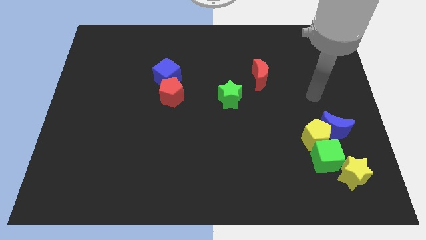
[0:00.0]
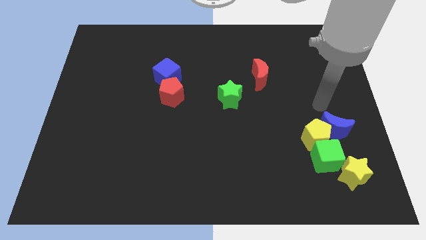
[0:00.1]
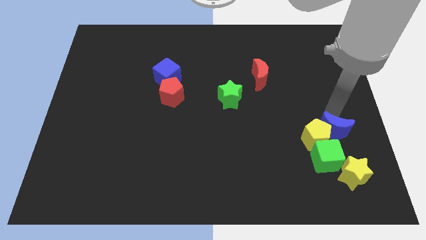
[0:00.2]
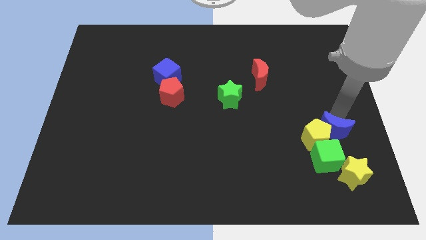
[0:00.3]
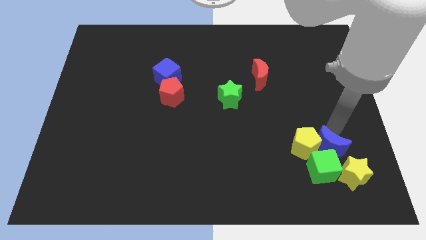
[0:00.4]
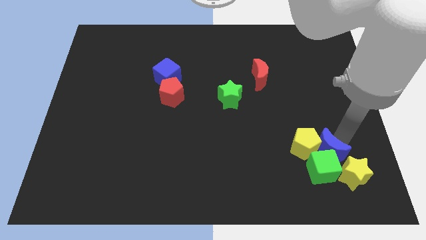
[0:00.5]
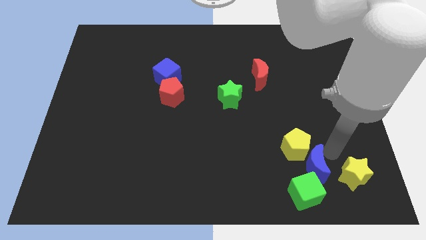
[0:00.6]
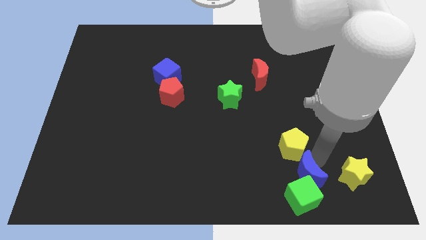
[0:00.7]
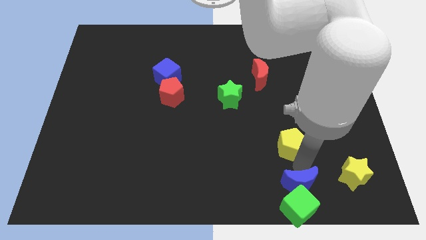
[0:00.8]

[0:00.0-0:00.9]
move the yellow pentagon away from the blue moon and green cube

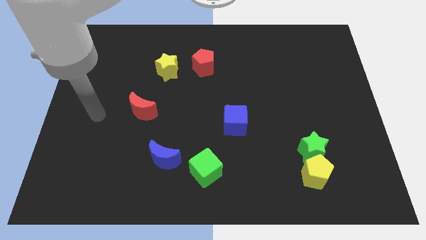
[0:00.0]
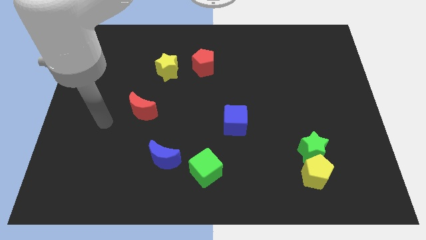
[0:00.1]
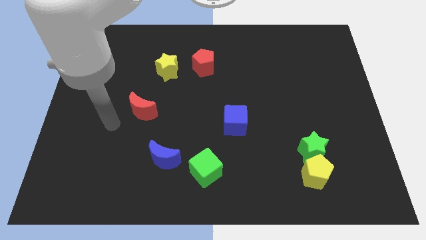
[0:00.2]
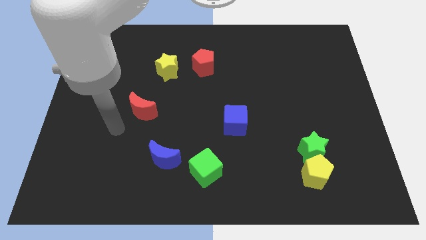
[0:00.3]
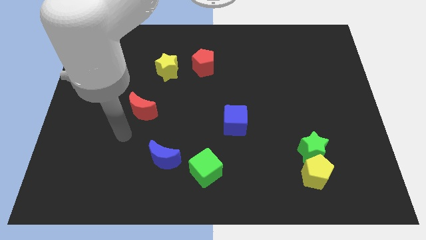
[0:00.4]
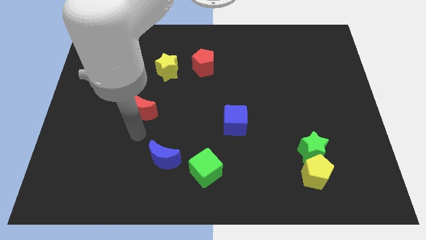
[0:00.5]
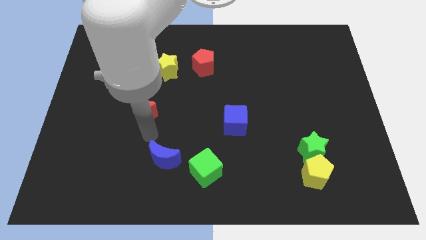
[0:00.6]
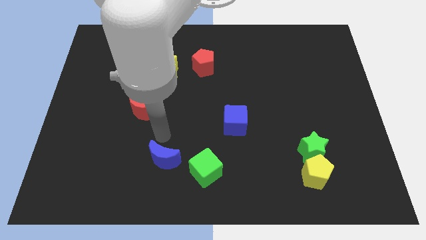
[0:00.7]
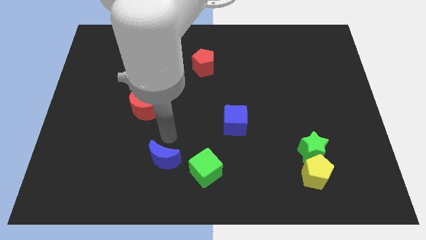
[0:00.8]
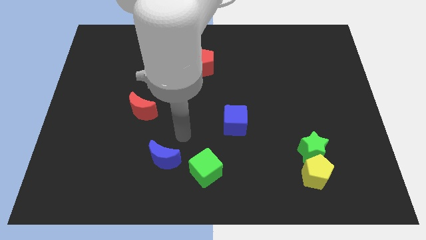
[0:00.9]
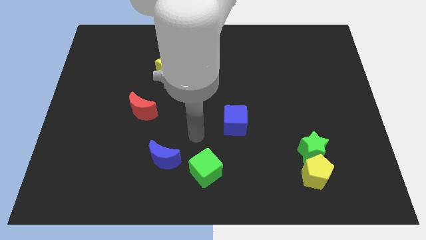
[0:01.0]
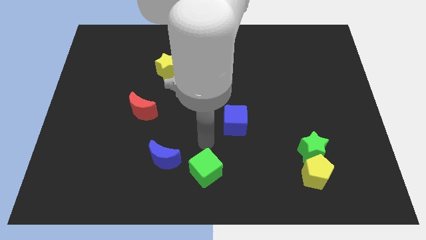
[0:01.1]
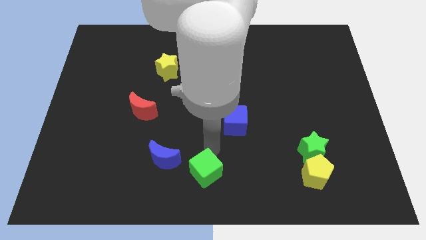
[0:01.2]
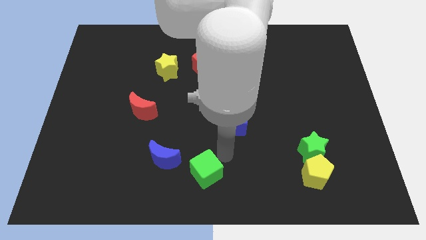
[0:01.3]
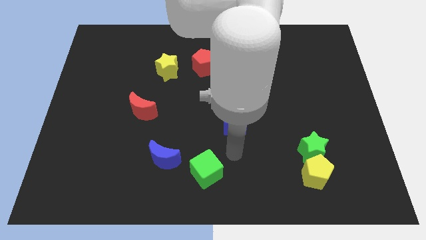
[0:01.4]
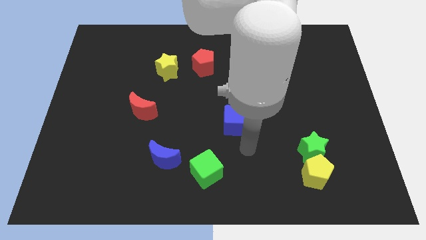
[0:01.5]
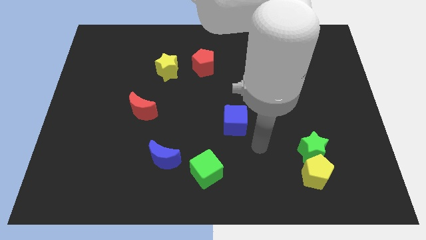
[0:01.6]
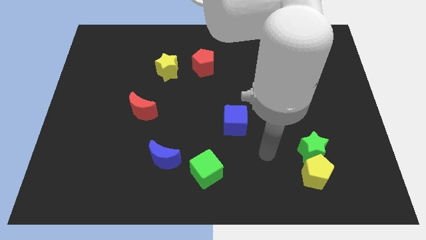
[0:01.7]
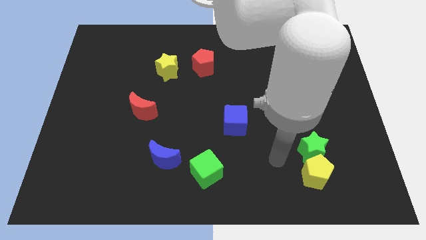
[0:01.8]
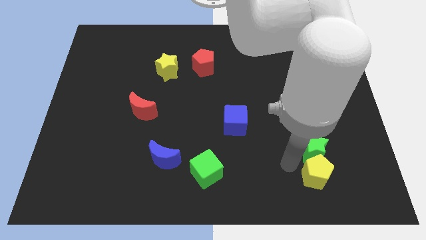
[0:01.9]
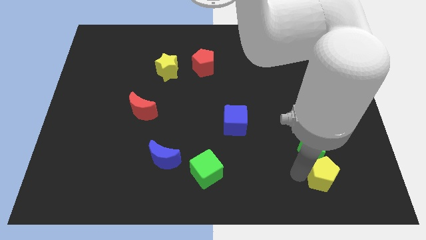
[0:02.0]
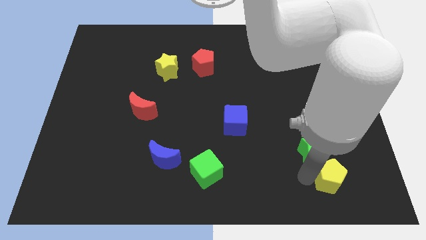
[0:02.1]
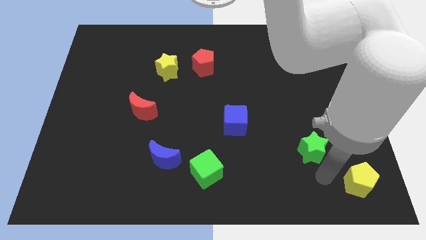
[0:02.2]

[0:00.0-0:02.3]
pull the green star apart from the yellow pentagon

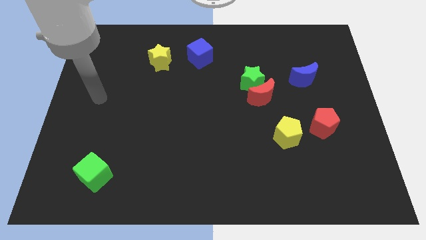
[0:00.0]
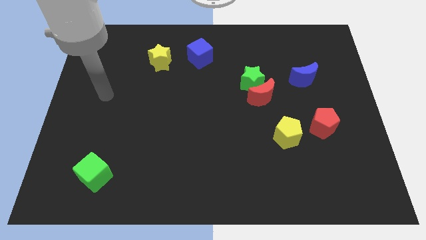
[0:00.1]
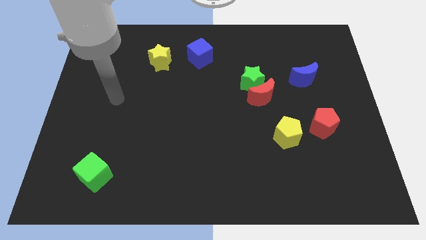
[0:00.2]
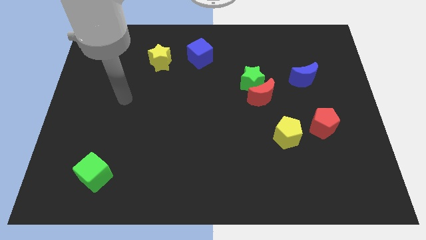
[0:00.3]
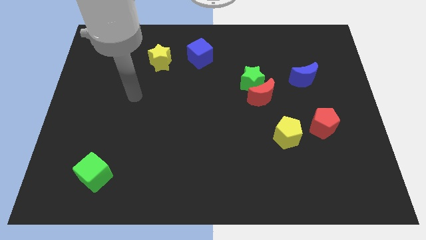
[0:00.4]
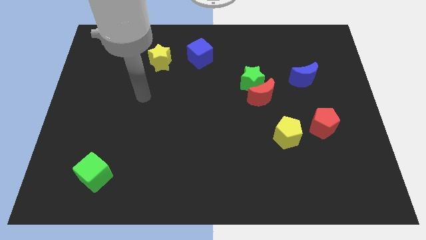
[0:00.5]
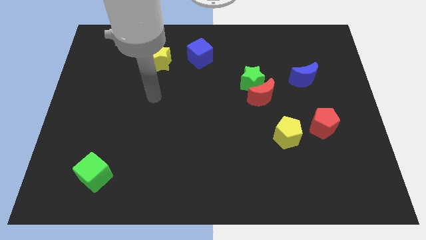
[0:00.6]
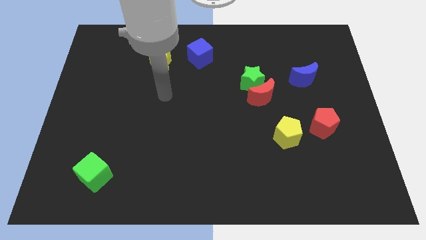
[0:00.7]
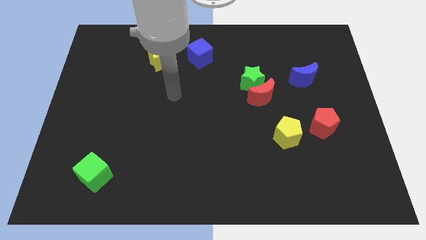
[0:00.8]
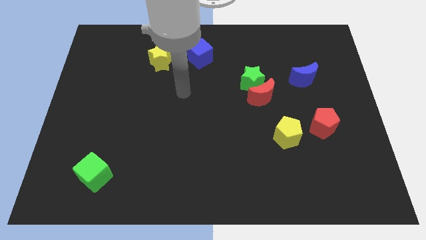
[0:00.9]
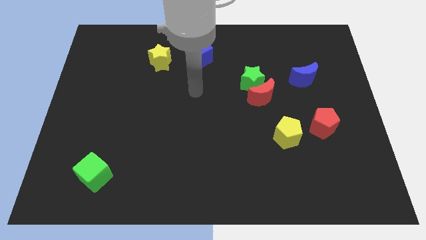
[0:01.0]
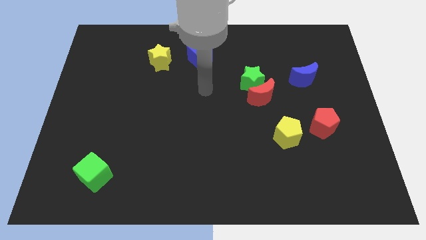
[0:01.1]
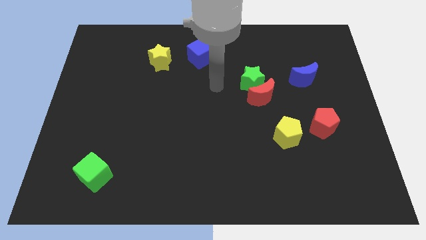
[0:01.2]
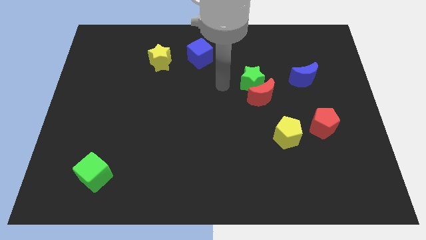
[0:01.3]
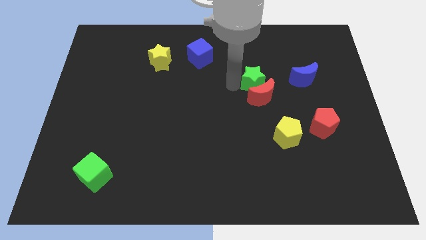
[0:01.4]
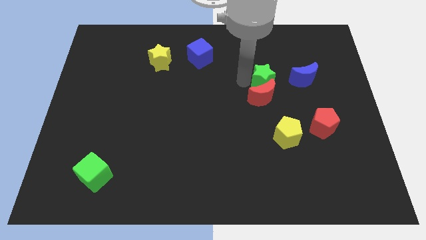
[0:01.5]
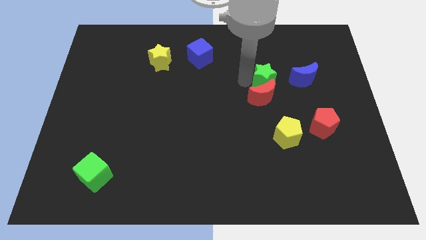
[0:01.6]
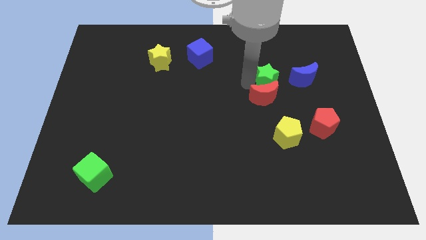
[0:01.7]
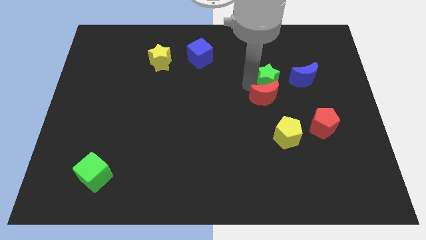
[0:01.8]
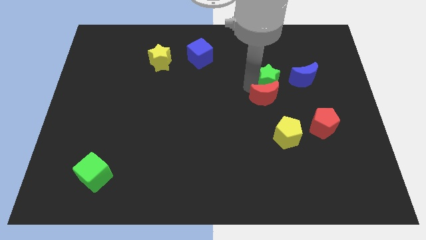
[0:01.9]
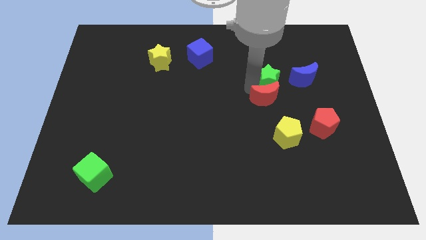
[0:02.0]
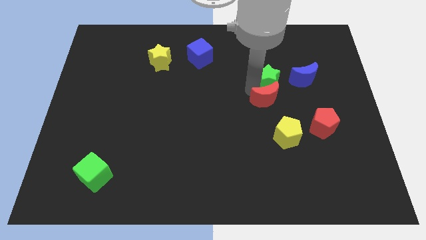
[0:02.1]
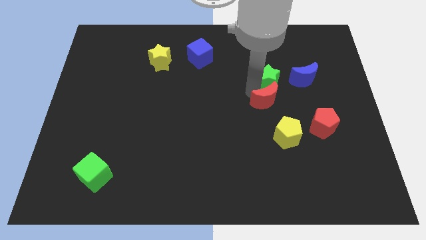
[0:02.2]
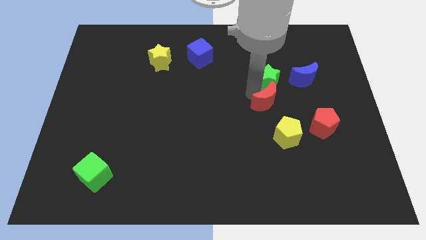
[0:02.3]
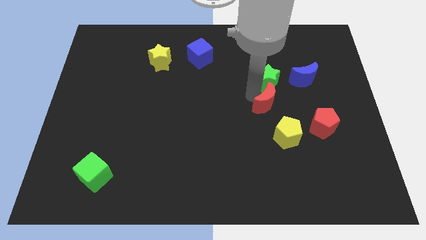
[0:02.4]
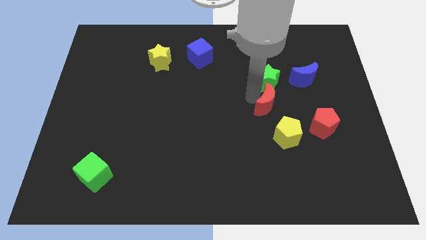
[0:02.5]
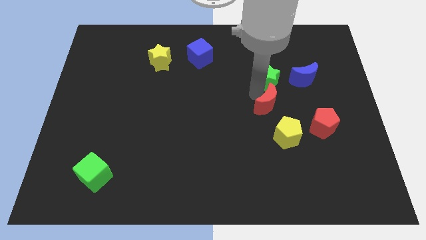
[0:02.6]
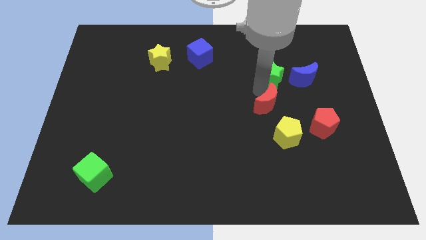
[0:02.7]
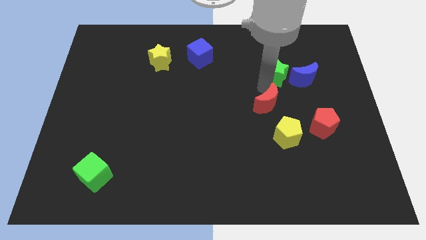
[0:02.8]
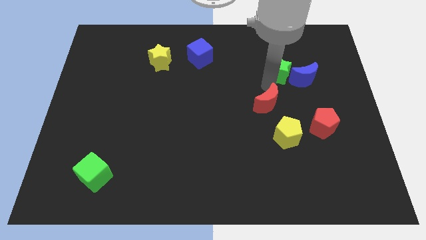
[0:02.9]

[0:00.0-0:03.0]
separate the red moon from the green star

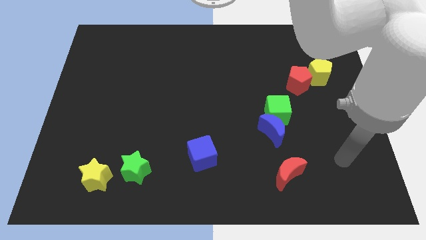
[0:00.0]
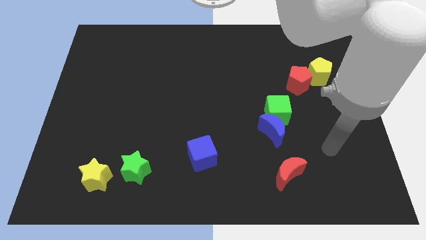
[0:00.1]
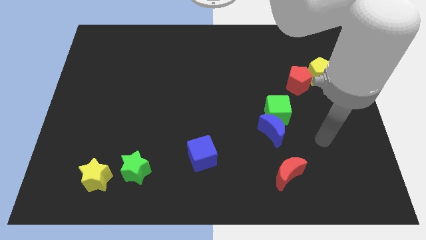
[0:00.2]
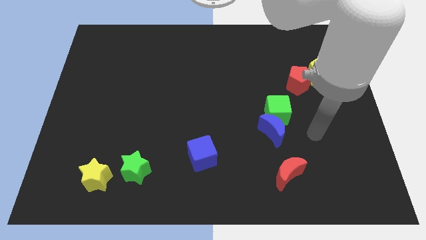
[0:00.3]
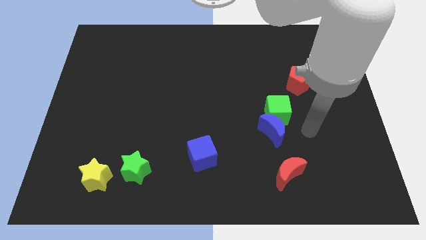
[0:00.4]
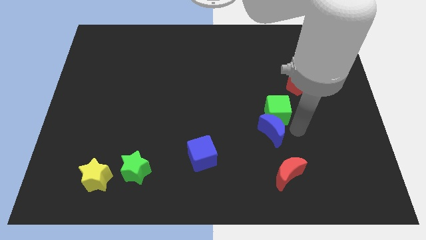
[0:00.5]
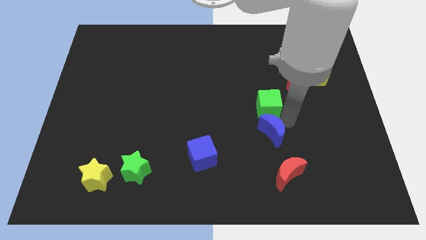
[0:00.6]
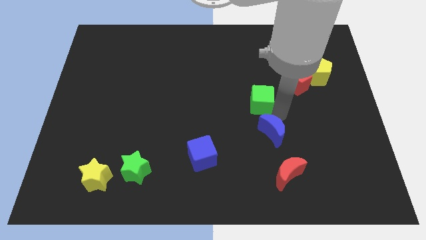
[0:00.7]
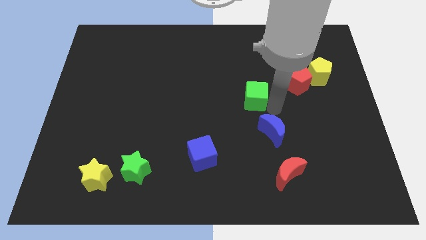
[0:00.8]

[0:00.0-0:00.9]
move the blue moon away from the green cube

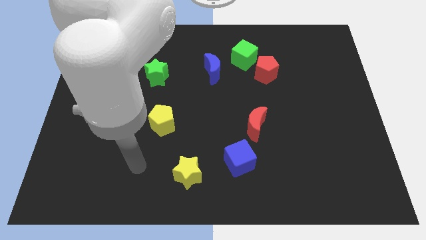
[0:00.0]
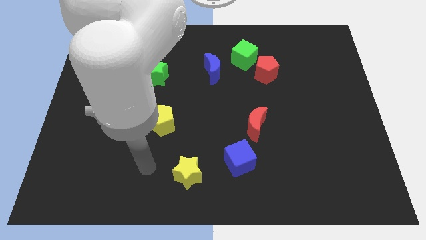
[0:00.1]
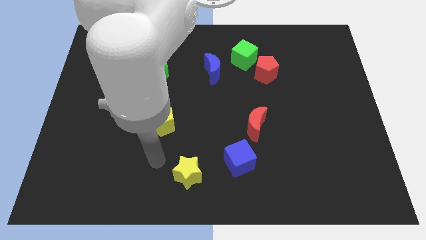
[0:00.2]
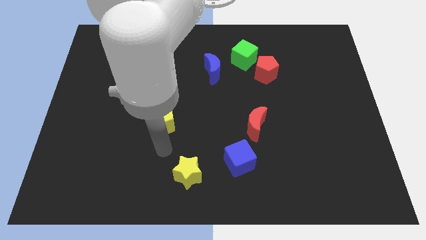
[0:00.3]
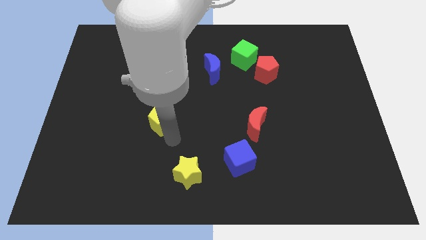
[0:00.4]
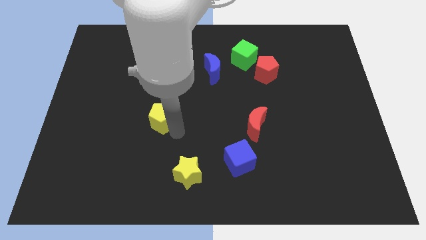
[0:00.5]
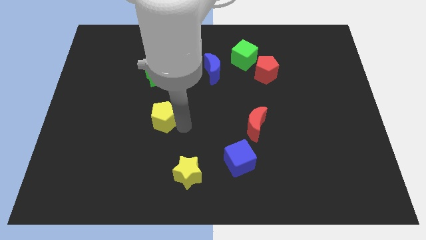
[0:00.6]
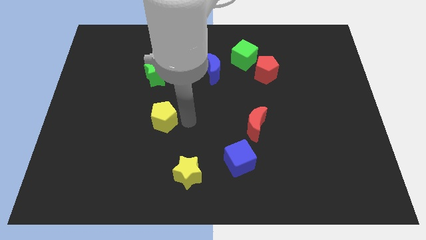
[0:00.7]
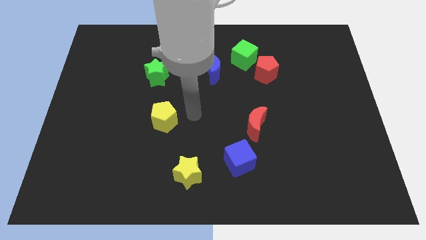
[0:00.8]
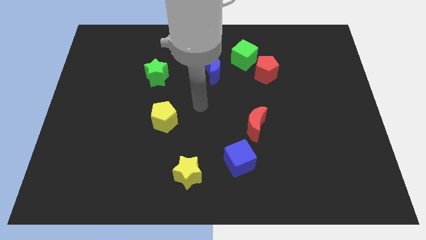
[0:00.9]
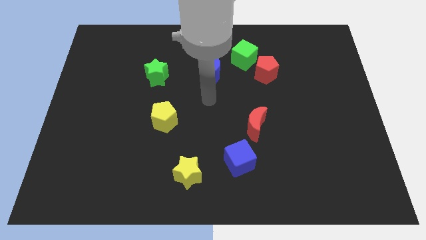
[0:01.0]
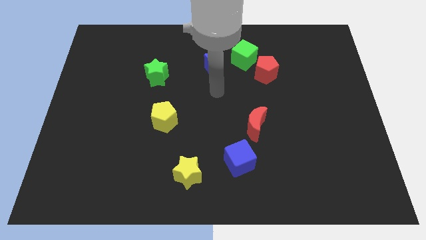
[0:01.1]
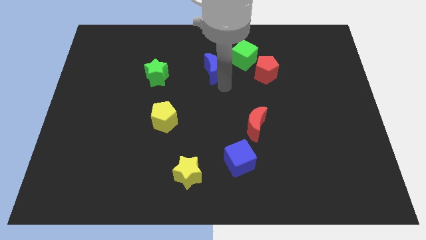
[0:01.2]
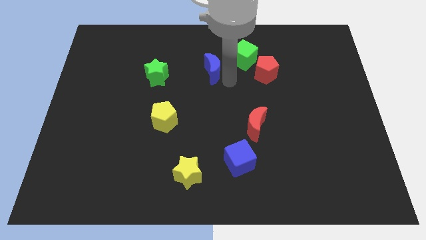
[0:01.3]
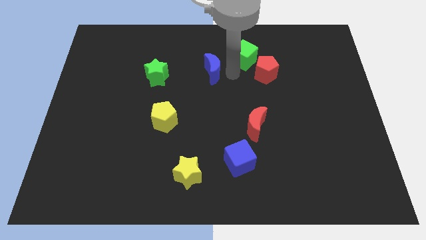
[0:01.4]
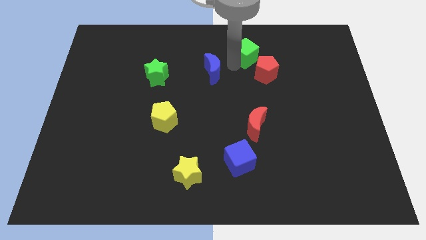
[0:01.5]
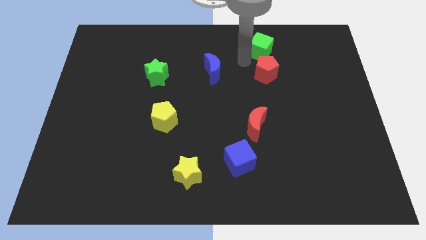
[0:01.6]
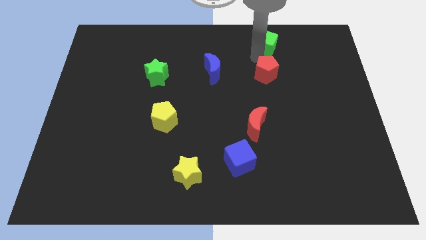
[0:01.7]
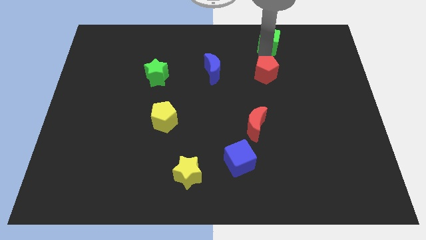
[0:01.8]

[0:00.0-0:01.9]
move the red pentagon away from the green cube

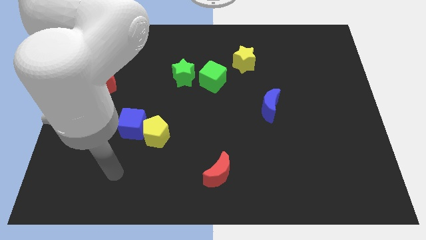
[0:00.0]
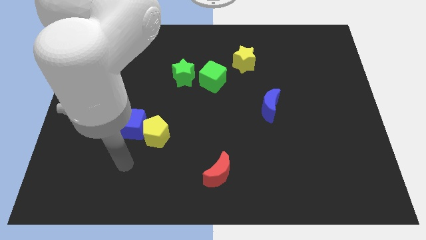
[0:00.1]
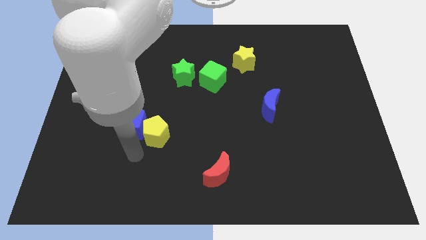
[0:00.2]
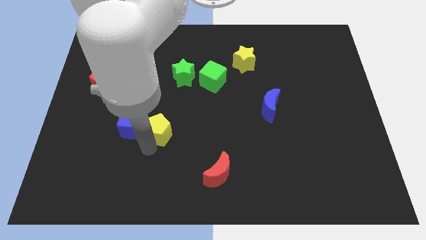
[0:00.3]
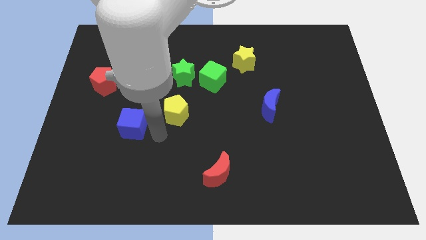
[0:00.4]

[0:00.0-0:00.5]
pull the blue cube apart from the yellow pentagon

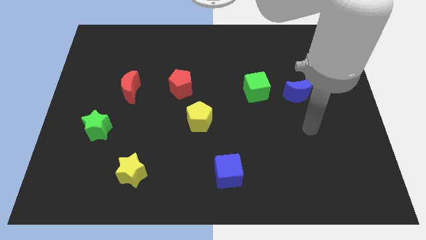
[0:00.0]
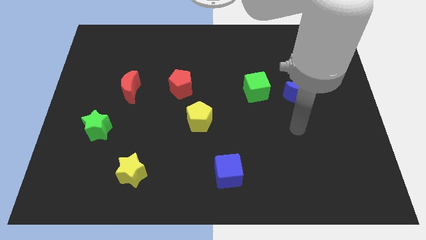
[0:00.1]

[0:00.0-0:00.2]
pull the blue moon apart from the green cube
